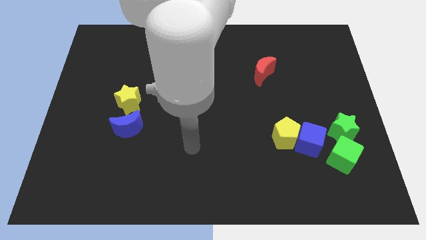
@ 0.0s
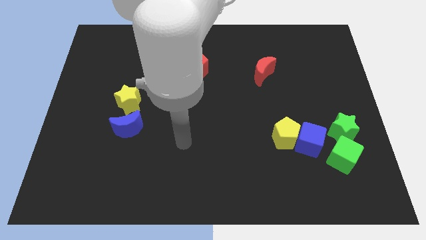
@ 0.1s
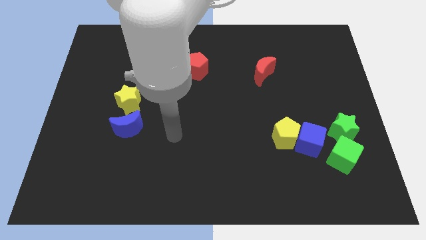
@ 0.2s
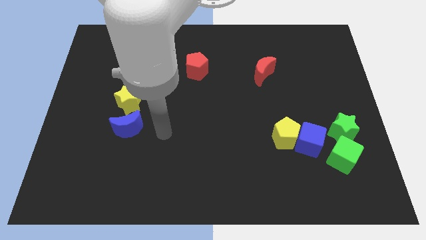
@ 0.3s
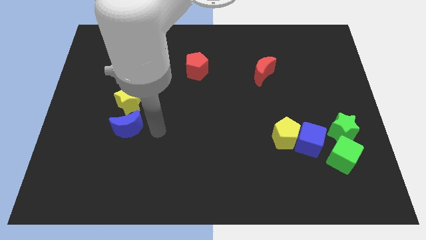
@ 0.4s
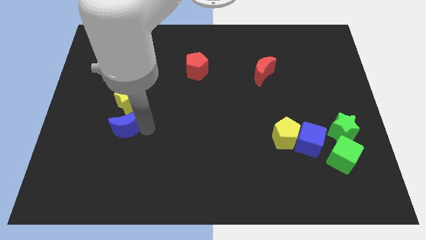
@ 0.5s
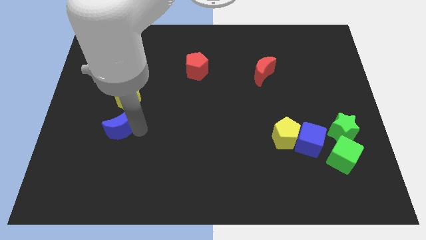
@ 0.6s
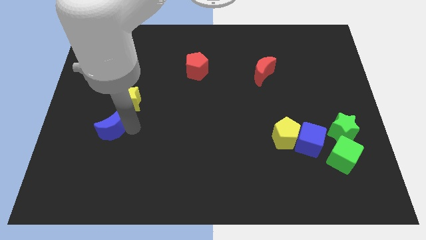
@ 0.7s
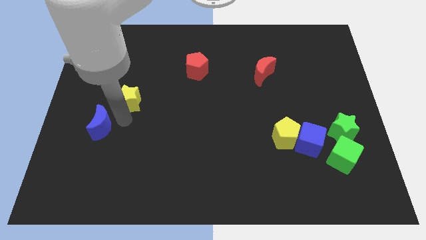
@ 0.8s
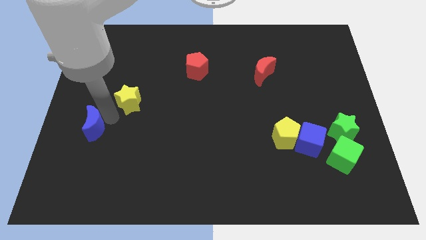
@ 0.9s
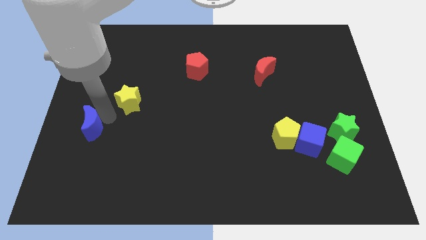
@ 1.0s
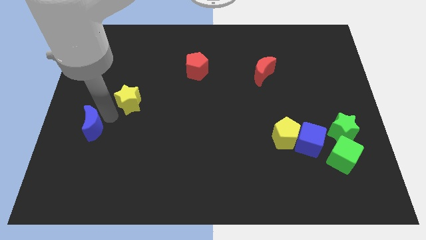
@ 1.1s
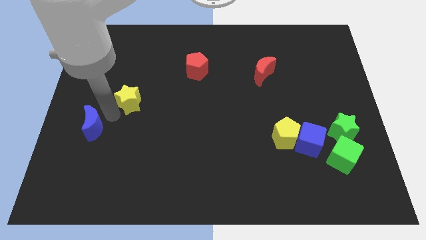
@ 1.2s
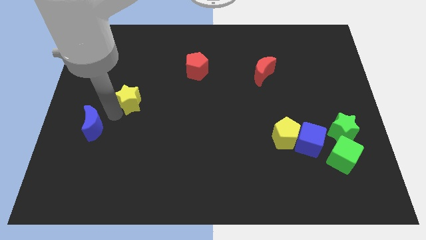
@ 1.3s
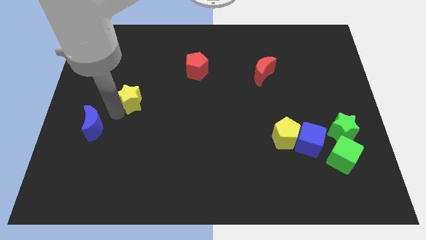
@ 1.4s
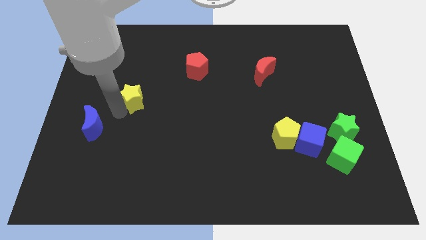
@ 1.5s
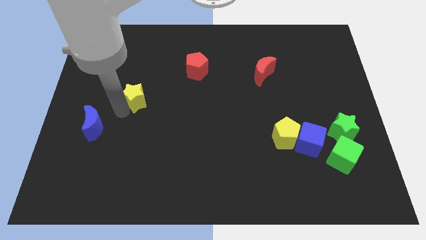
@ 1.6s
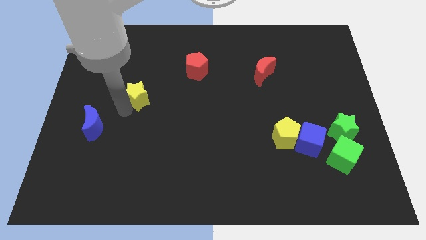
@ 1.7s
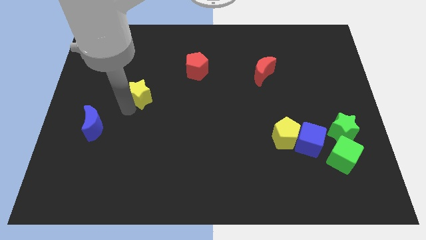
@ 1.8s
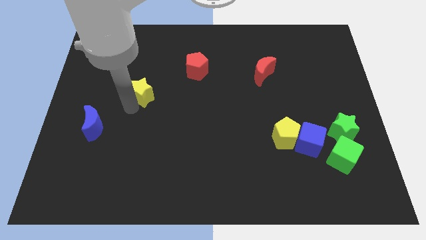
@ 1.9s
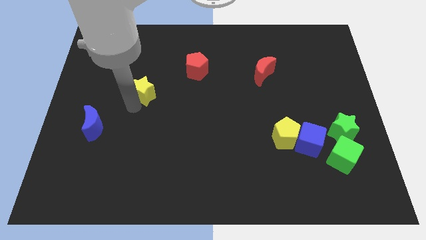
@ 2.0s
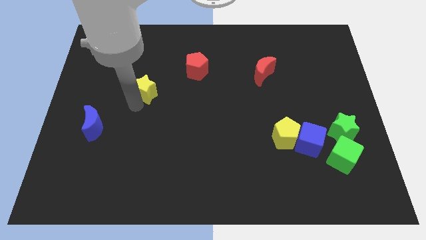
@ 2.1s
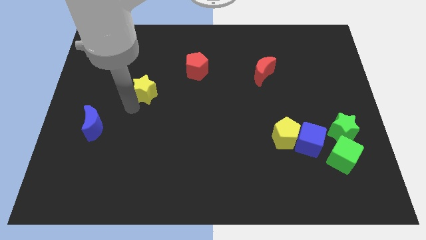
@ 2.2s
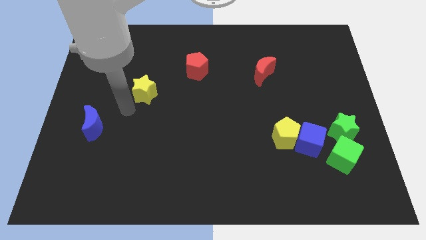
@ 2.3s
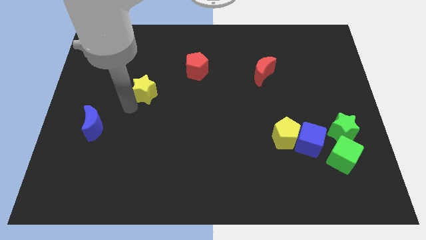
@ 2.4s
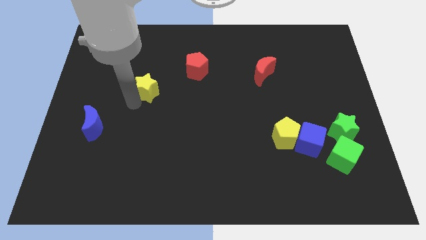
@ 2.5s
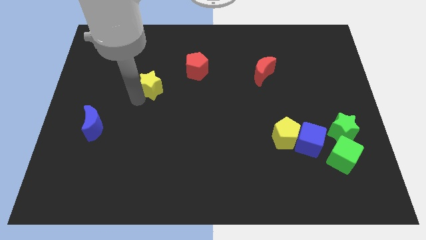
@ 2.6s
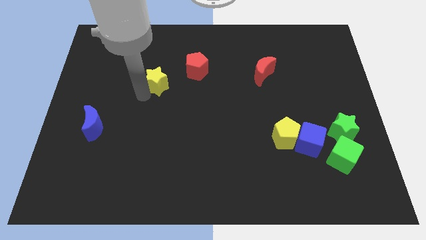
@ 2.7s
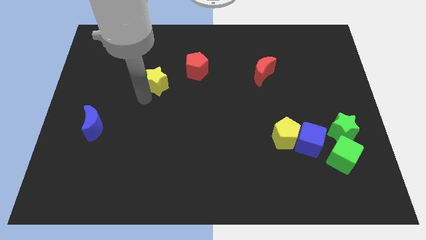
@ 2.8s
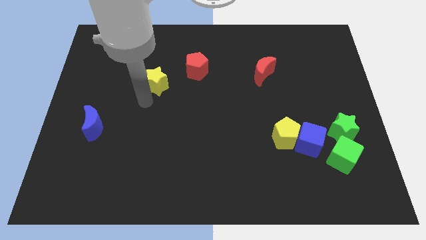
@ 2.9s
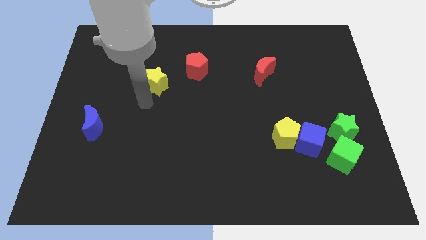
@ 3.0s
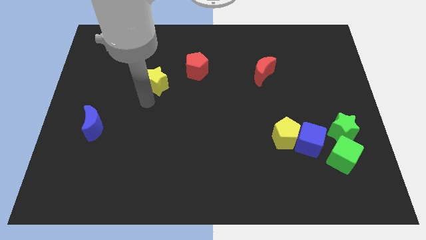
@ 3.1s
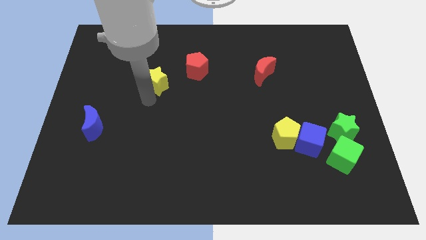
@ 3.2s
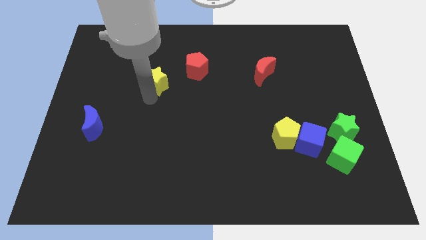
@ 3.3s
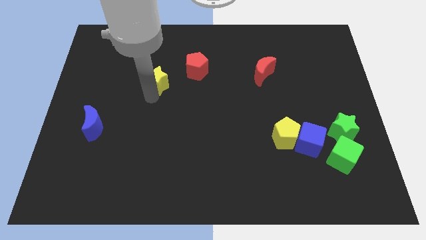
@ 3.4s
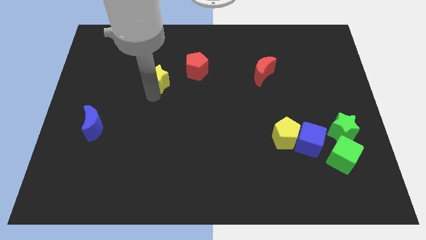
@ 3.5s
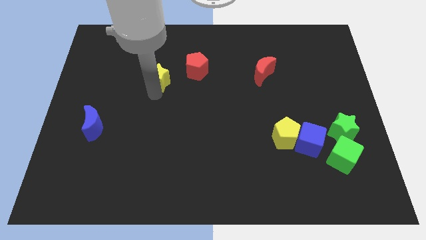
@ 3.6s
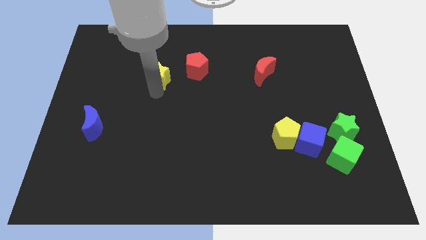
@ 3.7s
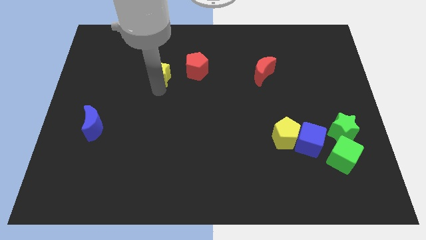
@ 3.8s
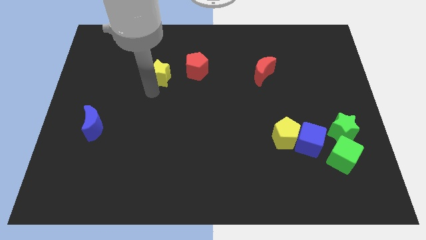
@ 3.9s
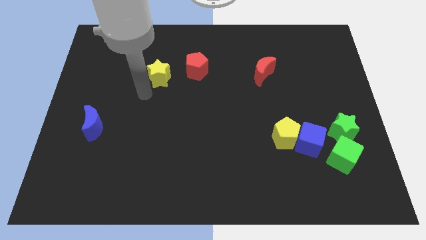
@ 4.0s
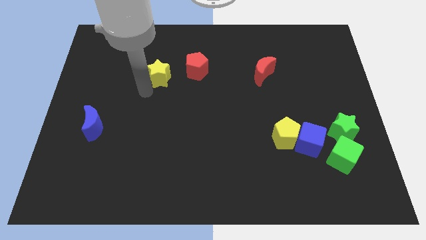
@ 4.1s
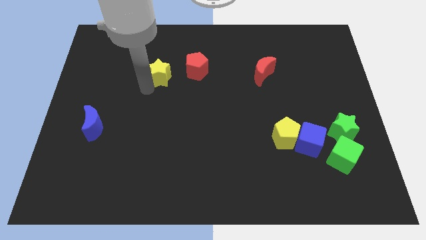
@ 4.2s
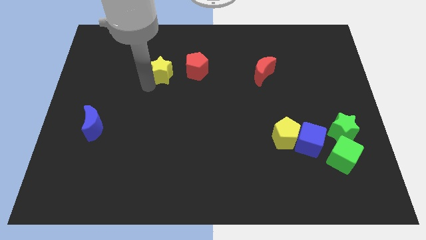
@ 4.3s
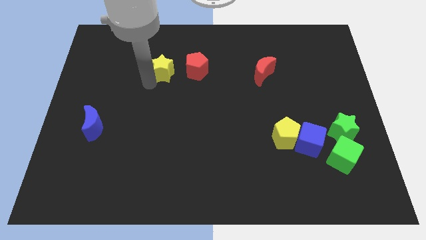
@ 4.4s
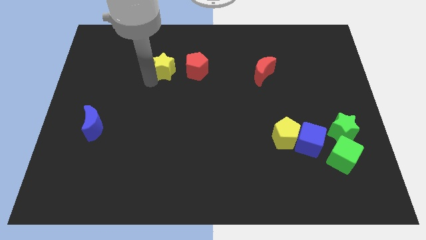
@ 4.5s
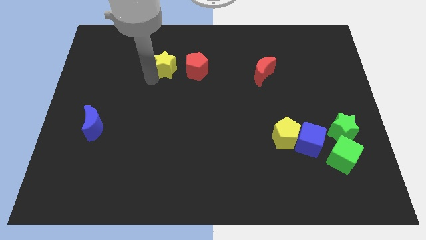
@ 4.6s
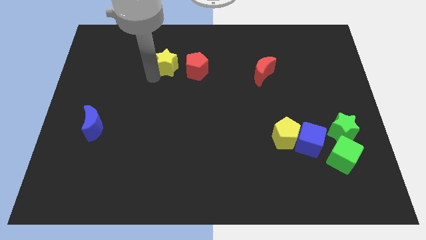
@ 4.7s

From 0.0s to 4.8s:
put the yellow star to the top left of the red pentagon

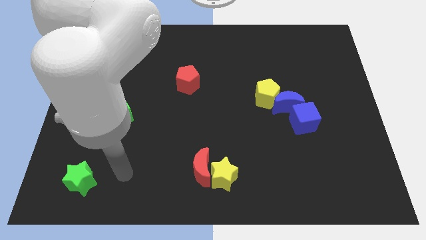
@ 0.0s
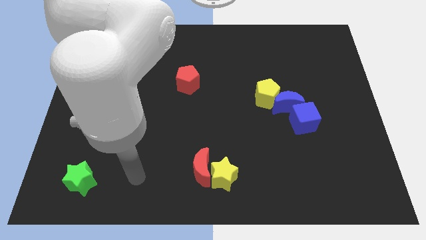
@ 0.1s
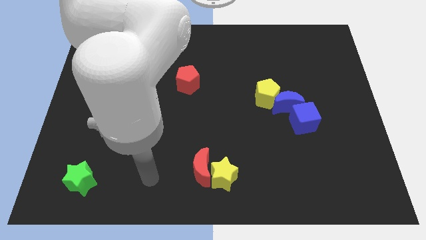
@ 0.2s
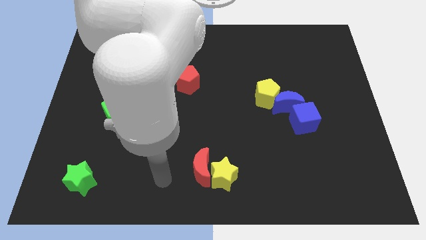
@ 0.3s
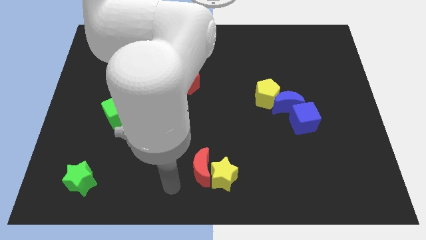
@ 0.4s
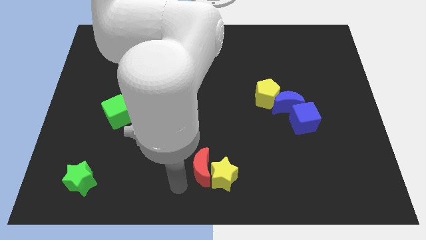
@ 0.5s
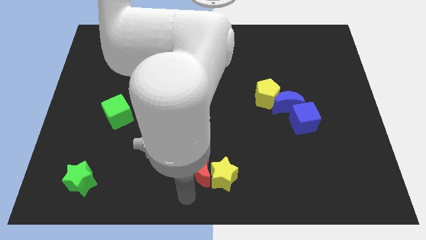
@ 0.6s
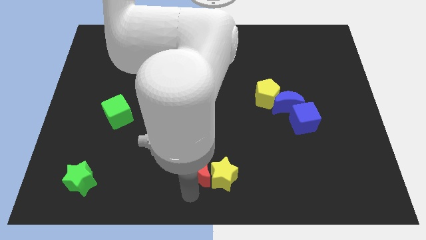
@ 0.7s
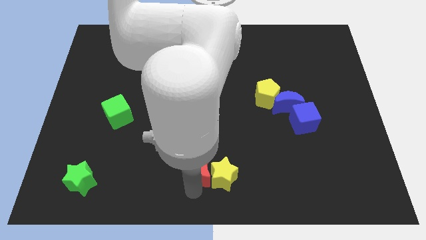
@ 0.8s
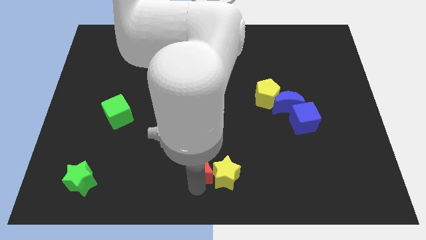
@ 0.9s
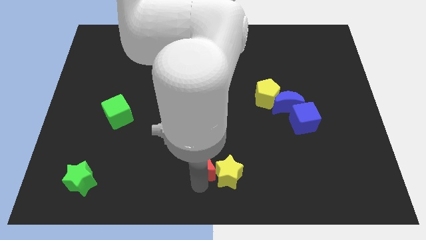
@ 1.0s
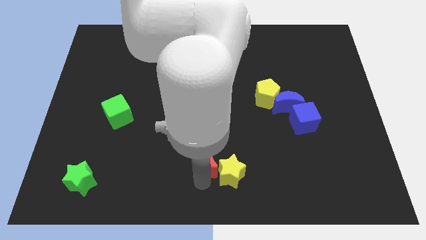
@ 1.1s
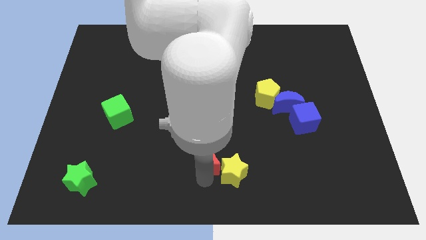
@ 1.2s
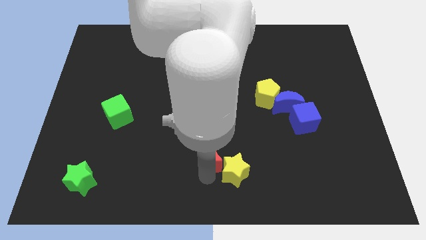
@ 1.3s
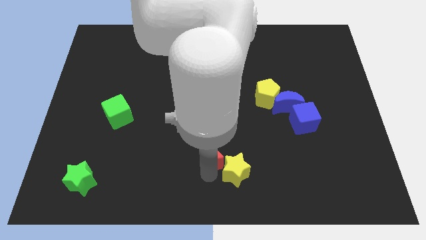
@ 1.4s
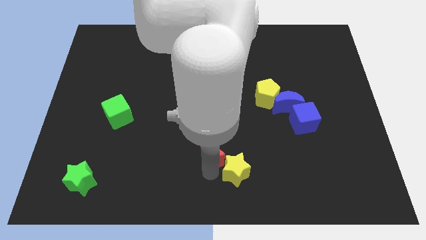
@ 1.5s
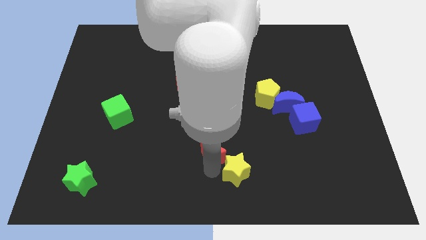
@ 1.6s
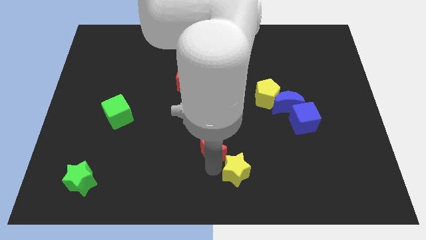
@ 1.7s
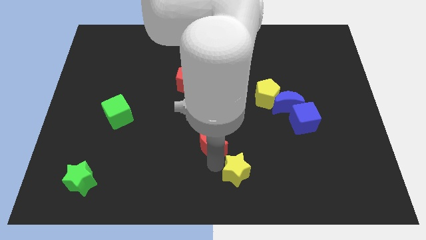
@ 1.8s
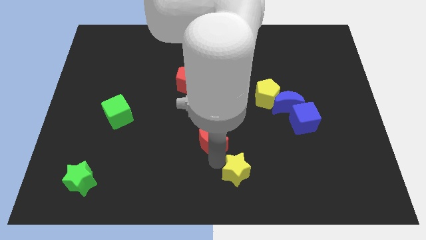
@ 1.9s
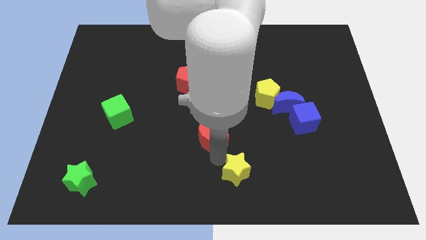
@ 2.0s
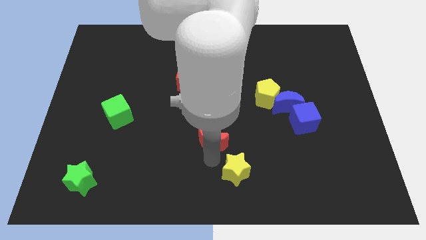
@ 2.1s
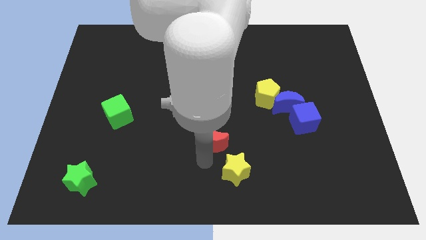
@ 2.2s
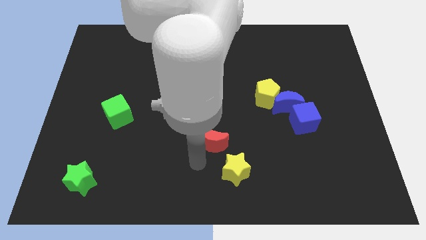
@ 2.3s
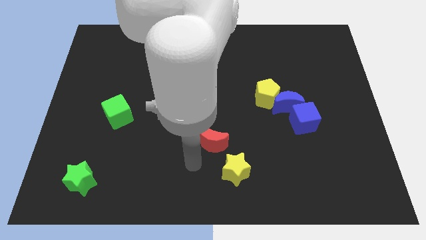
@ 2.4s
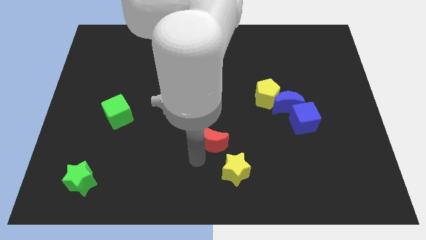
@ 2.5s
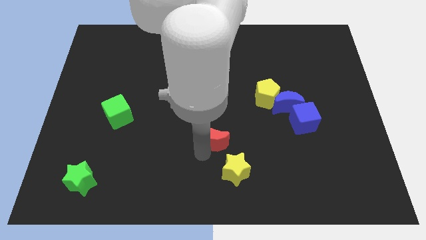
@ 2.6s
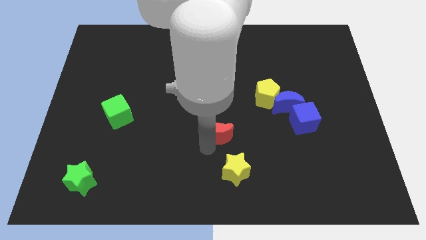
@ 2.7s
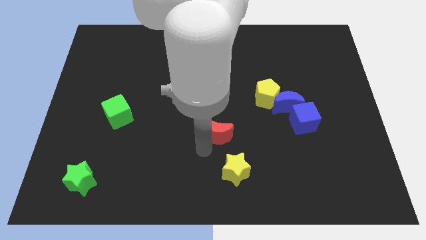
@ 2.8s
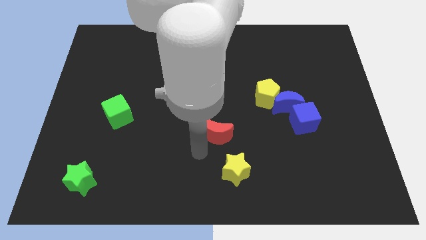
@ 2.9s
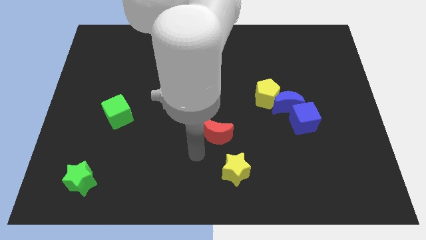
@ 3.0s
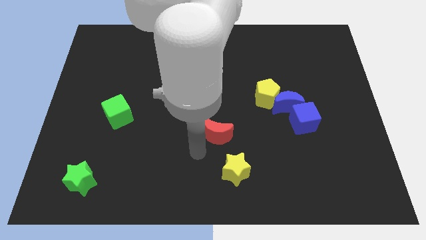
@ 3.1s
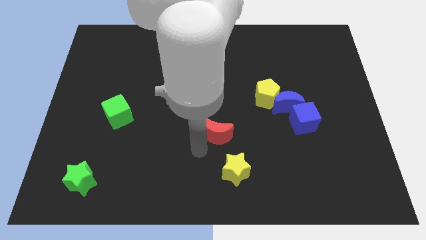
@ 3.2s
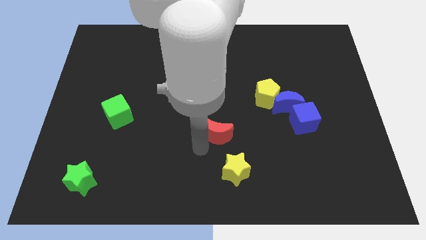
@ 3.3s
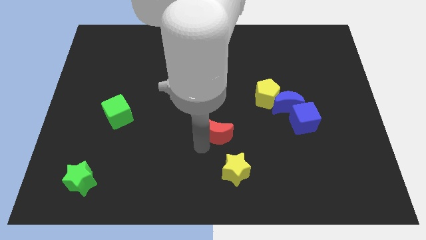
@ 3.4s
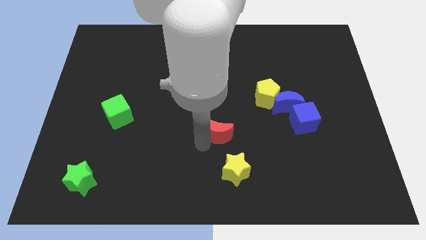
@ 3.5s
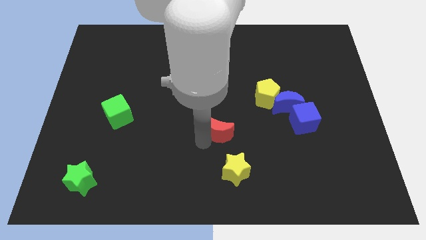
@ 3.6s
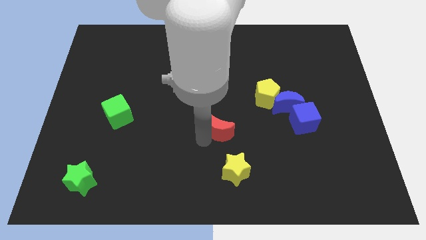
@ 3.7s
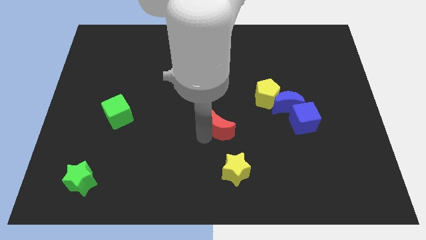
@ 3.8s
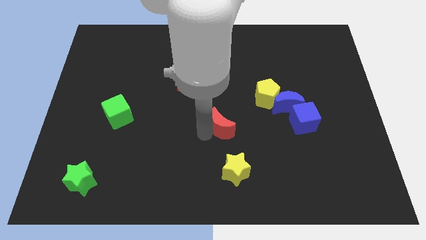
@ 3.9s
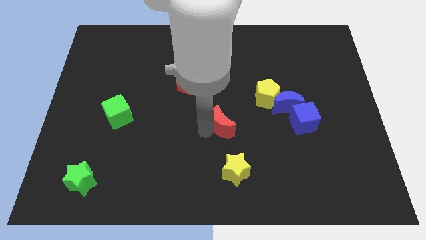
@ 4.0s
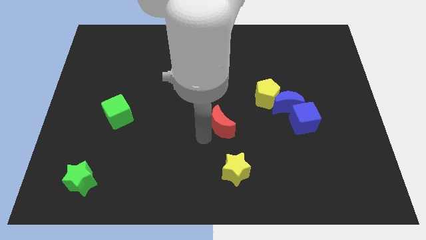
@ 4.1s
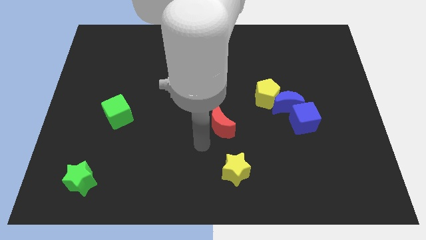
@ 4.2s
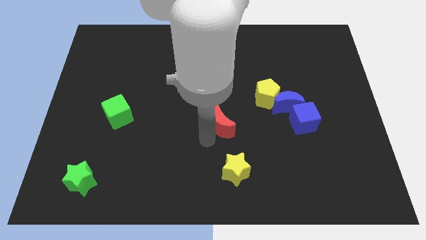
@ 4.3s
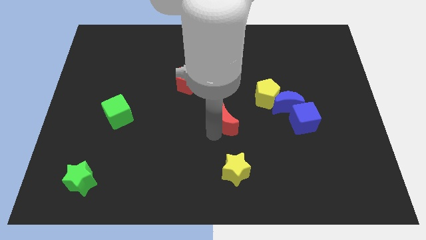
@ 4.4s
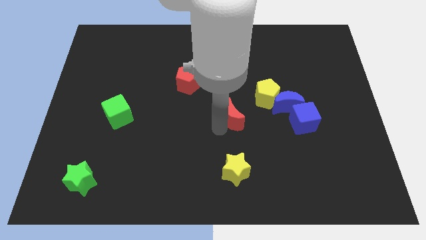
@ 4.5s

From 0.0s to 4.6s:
move the red moon to the left of the blue moon
